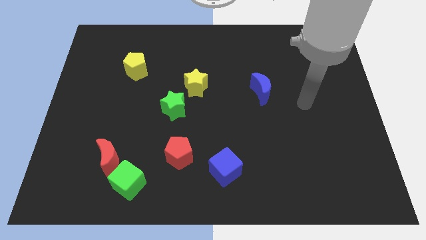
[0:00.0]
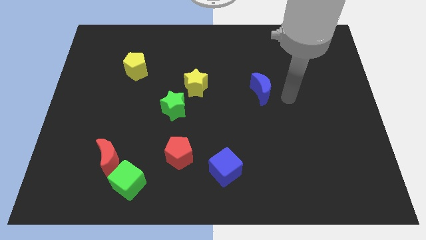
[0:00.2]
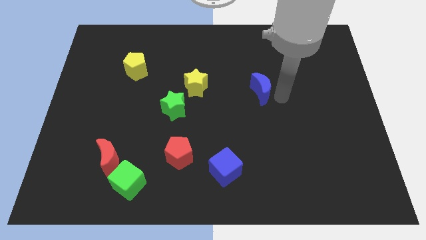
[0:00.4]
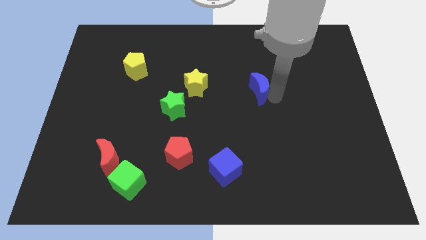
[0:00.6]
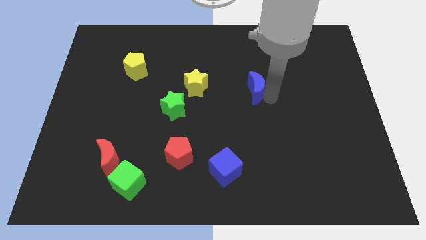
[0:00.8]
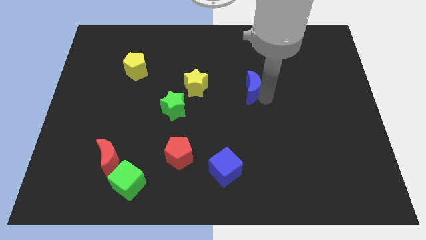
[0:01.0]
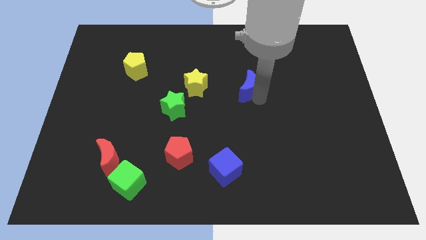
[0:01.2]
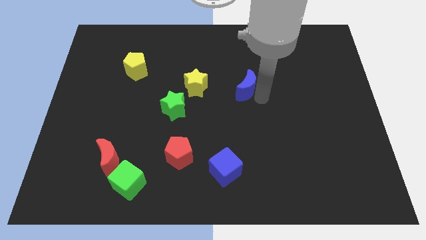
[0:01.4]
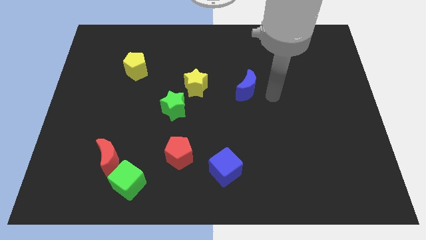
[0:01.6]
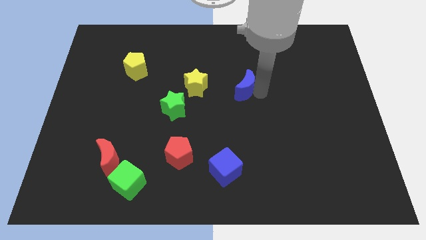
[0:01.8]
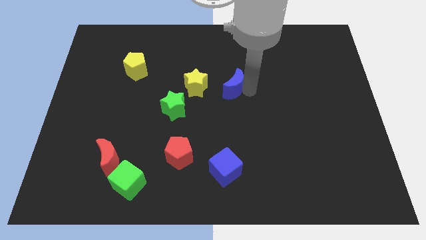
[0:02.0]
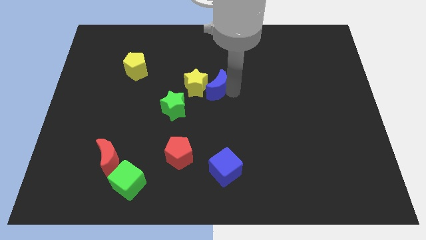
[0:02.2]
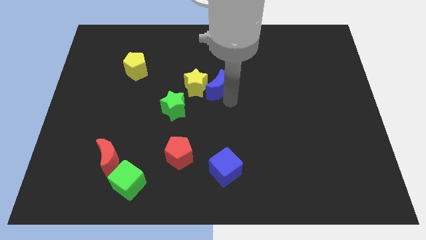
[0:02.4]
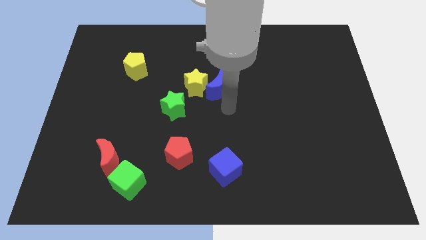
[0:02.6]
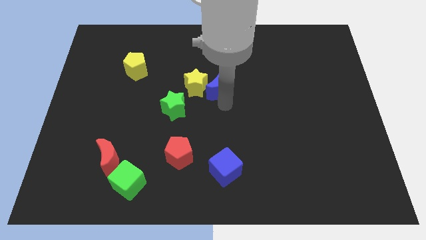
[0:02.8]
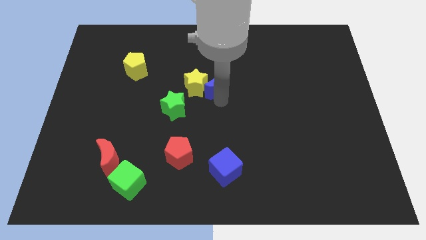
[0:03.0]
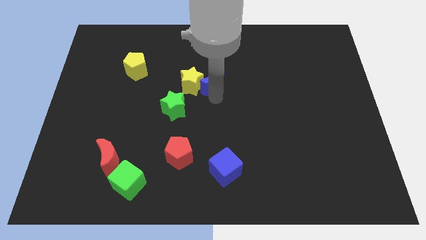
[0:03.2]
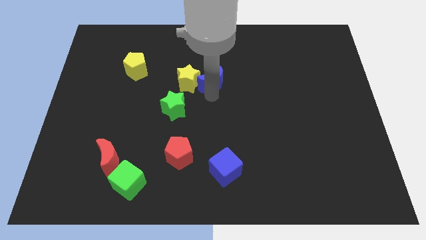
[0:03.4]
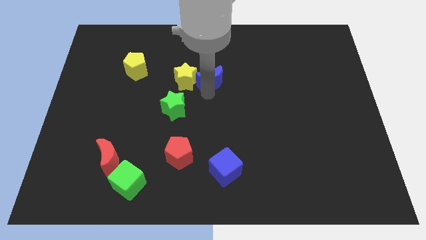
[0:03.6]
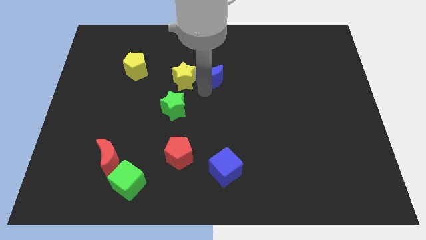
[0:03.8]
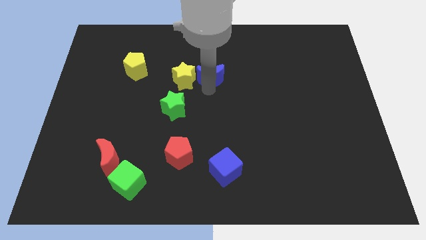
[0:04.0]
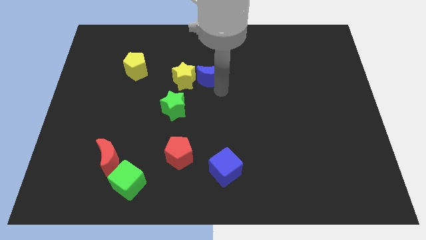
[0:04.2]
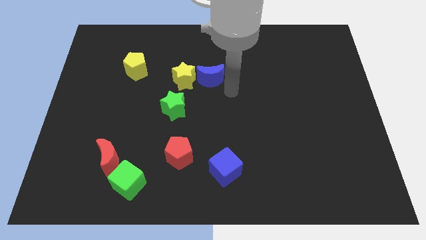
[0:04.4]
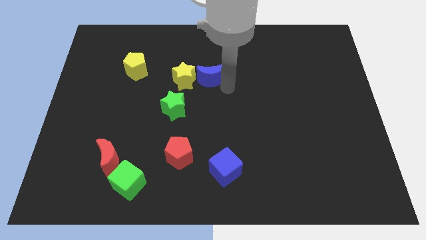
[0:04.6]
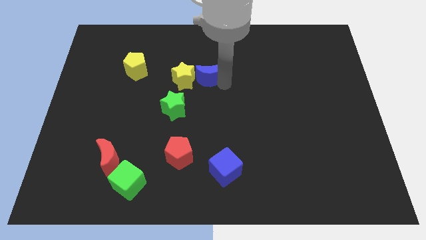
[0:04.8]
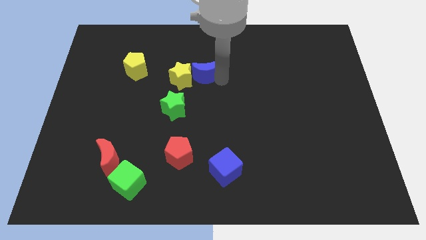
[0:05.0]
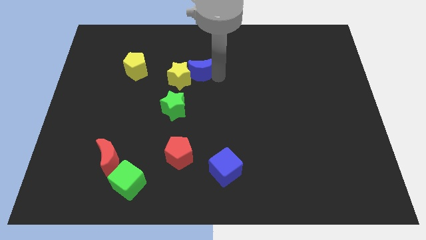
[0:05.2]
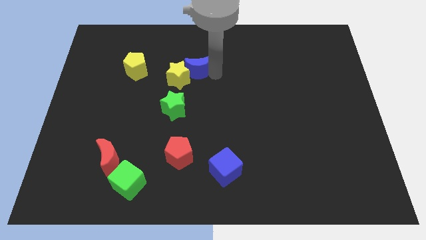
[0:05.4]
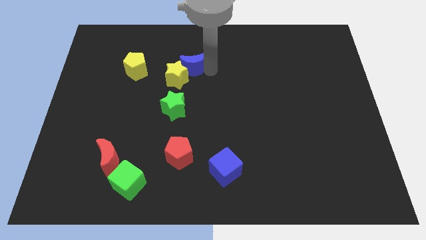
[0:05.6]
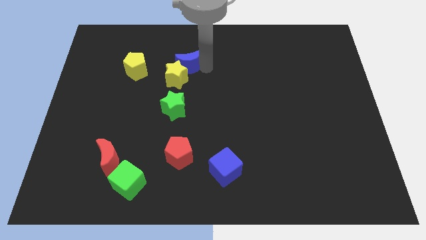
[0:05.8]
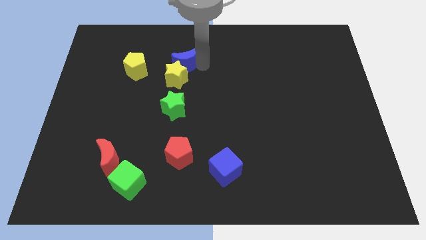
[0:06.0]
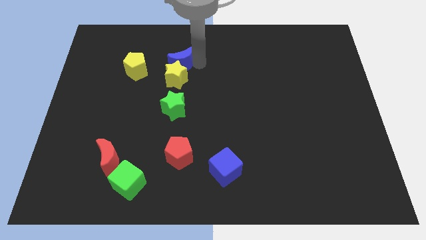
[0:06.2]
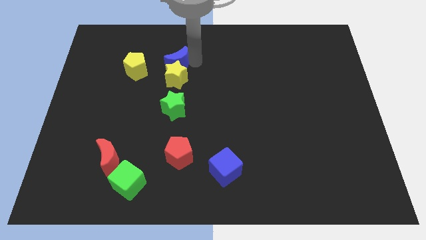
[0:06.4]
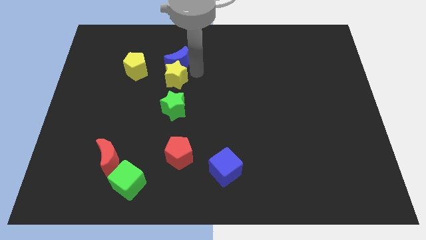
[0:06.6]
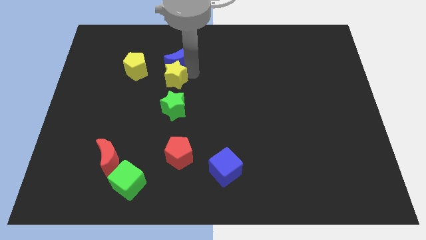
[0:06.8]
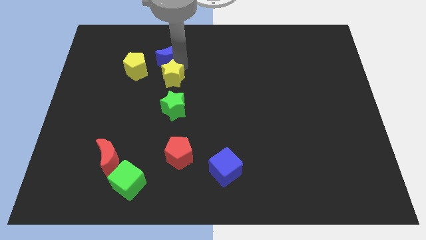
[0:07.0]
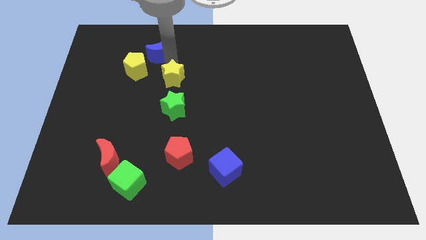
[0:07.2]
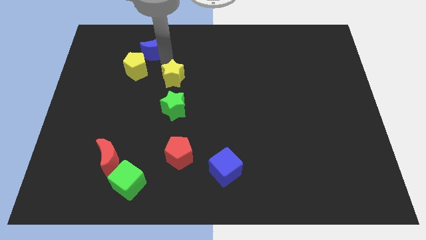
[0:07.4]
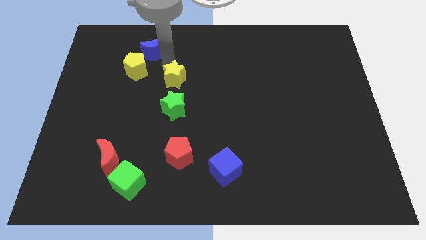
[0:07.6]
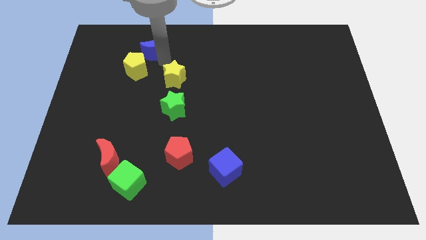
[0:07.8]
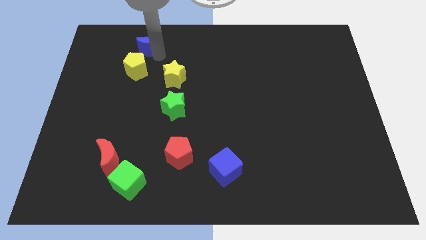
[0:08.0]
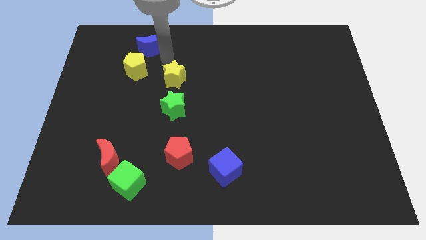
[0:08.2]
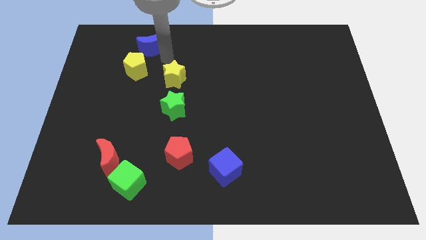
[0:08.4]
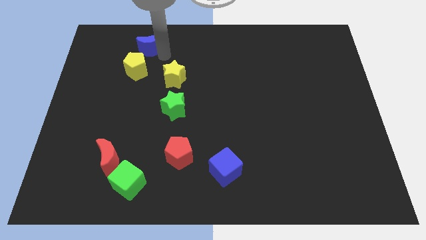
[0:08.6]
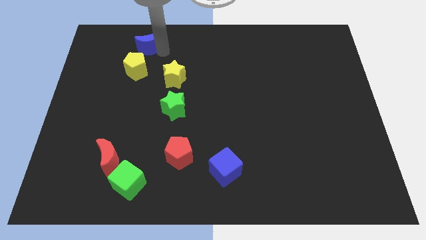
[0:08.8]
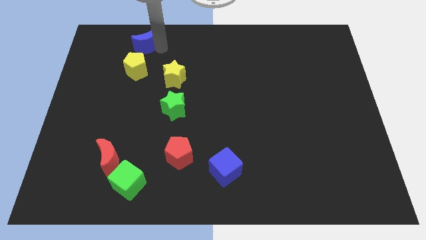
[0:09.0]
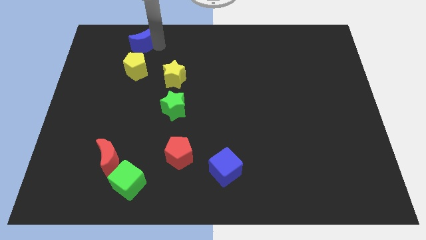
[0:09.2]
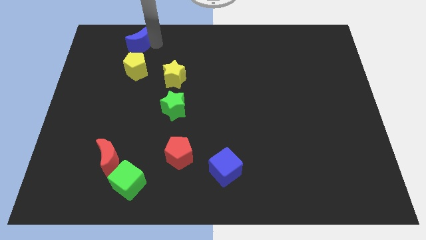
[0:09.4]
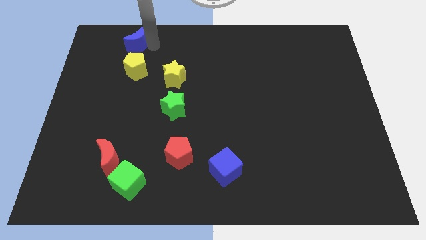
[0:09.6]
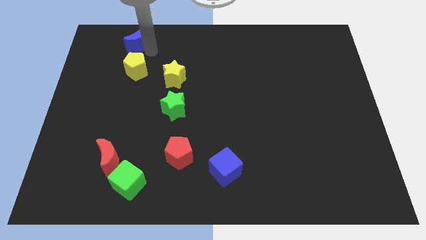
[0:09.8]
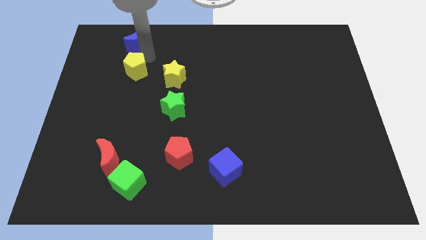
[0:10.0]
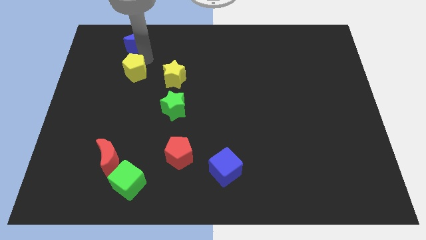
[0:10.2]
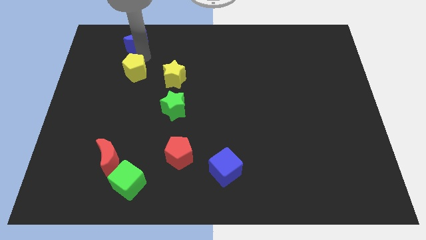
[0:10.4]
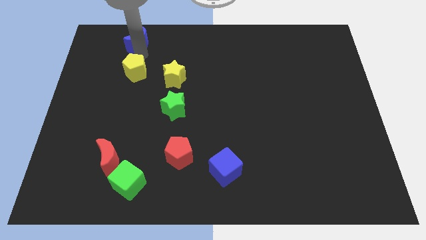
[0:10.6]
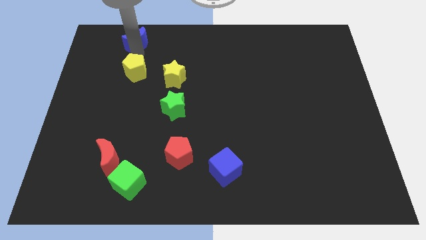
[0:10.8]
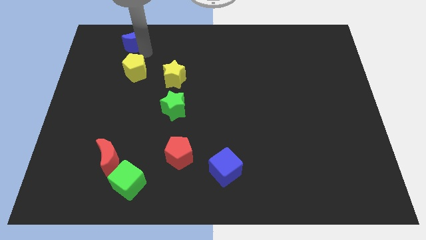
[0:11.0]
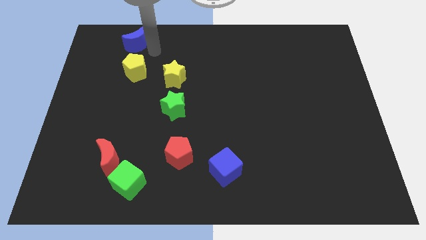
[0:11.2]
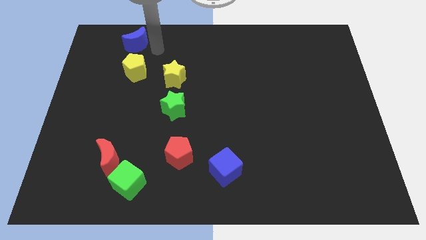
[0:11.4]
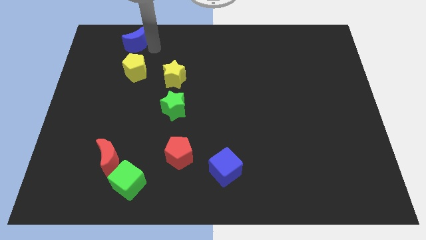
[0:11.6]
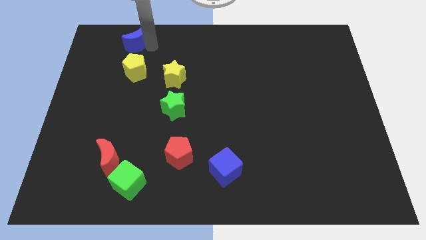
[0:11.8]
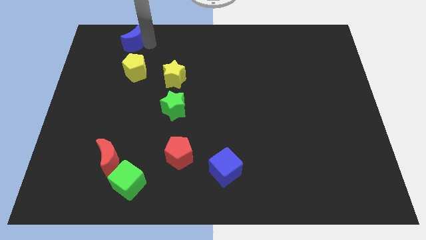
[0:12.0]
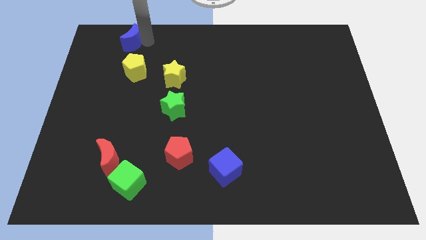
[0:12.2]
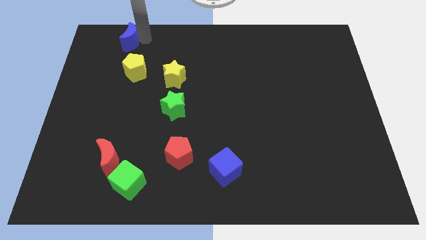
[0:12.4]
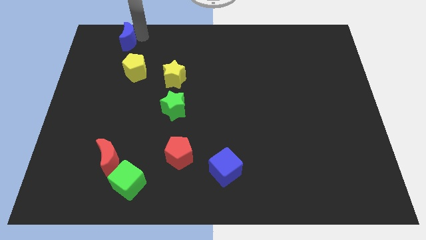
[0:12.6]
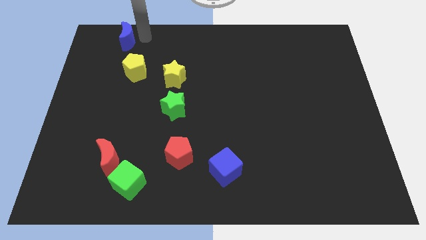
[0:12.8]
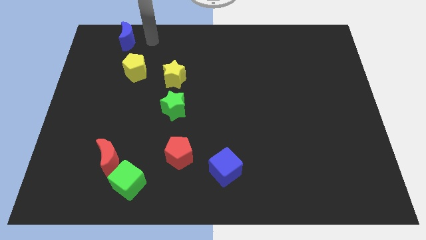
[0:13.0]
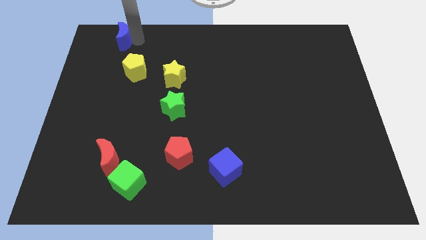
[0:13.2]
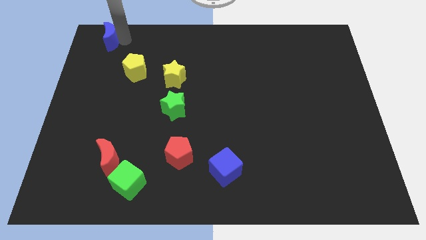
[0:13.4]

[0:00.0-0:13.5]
push the blue moon to the top left corner
